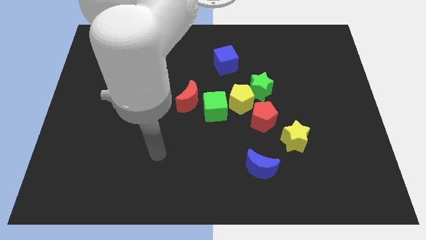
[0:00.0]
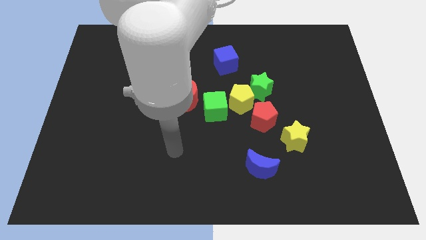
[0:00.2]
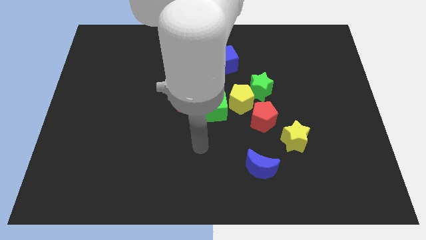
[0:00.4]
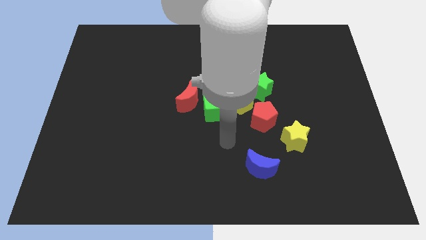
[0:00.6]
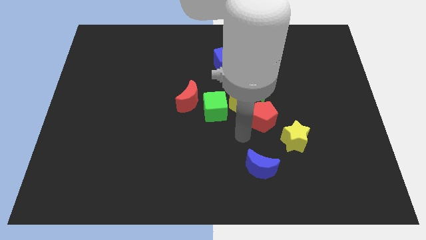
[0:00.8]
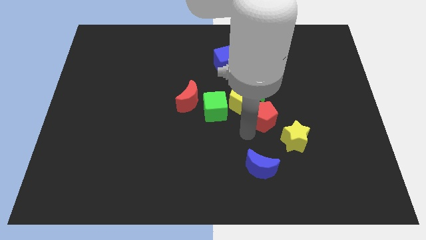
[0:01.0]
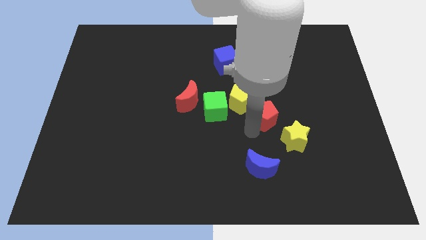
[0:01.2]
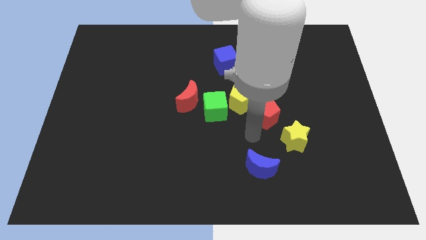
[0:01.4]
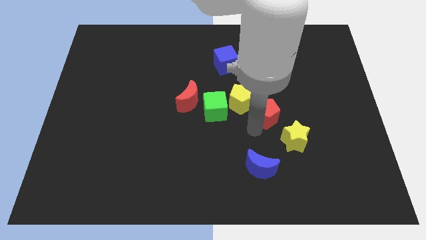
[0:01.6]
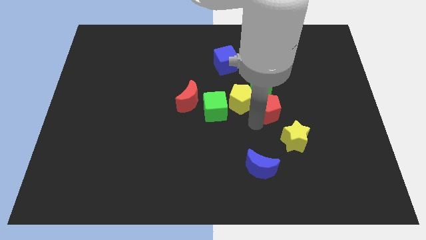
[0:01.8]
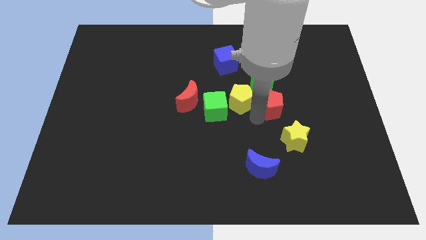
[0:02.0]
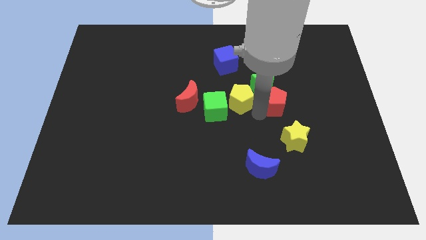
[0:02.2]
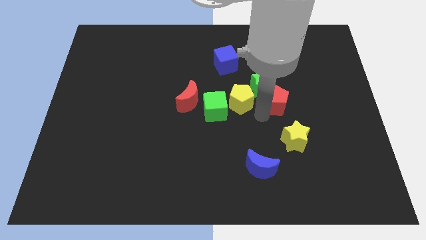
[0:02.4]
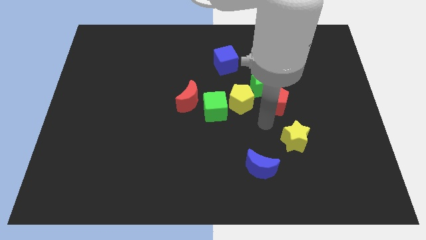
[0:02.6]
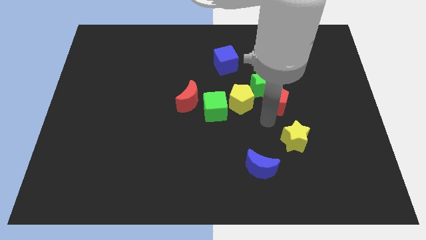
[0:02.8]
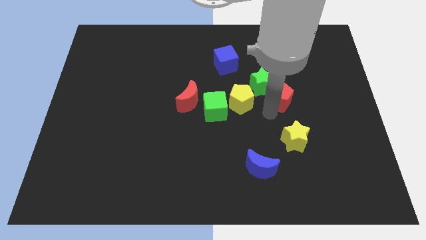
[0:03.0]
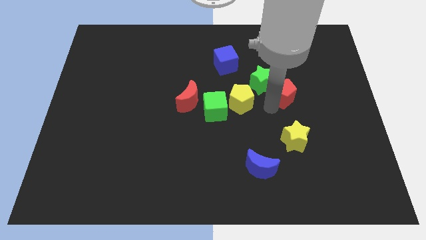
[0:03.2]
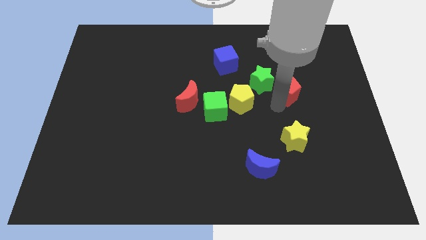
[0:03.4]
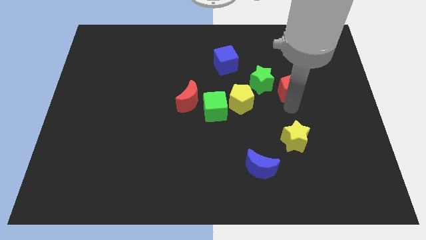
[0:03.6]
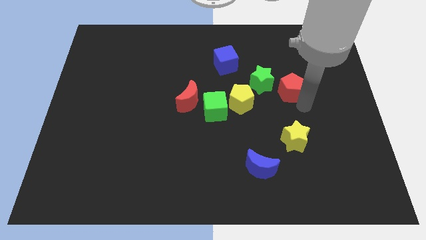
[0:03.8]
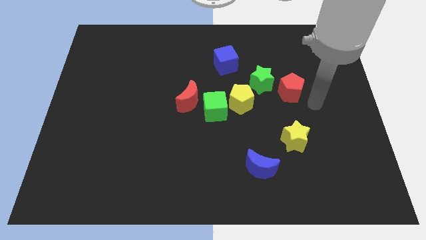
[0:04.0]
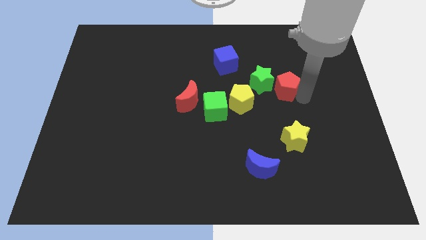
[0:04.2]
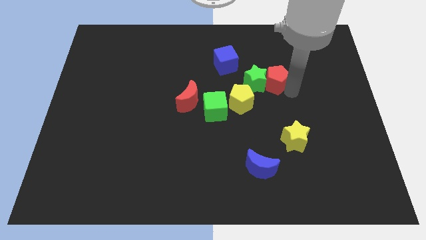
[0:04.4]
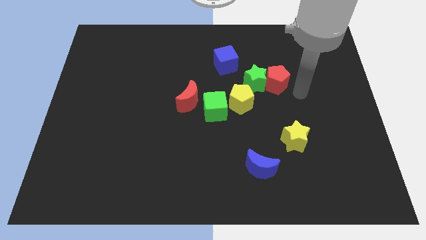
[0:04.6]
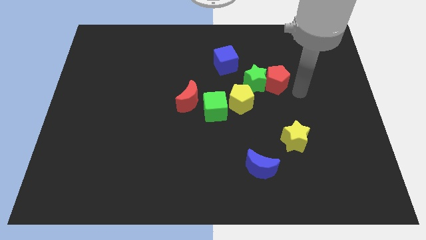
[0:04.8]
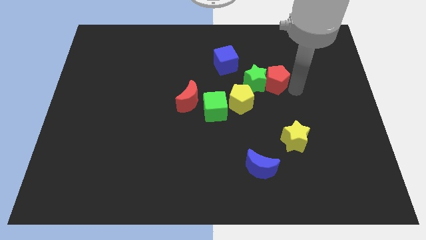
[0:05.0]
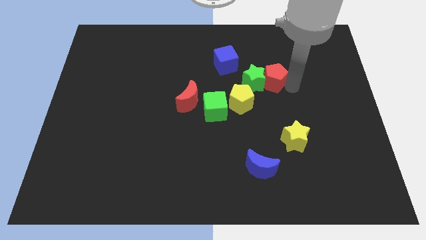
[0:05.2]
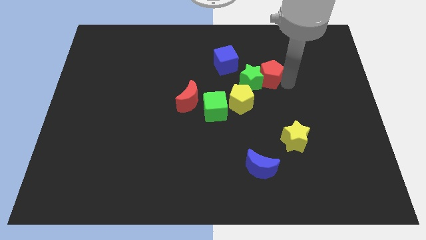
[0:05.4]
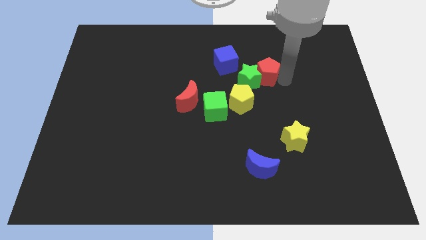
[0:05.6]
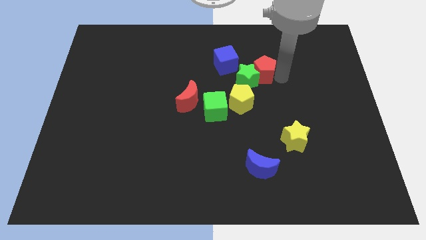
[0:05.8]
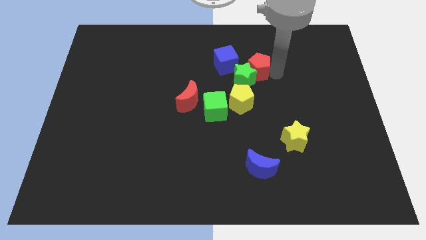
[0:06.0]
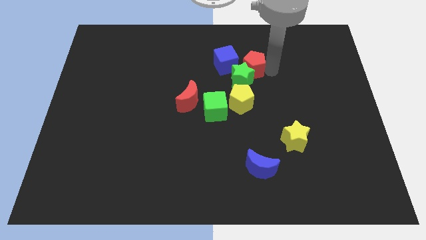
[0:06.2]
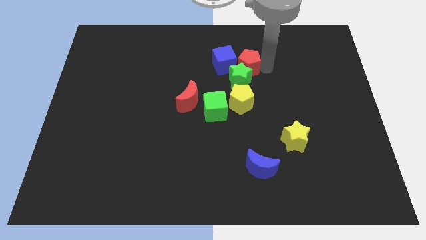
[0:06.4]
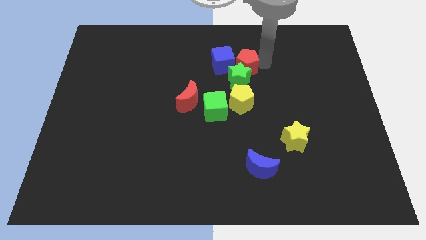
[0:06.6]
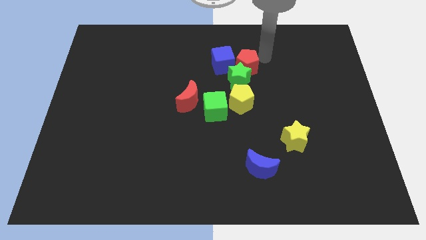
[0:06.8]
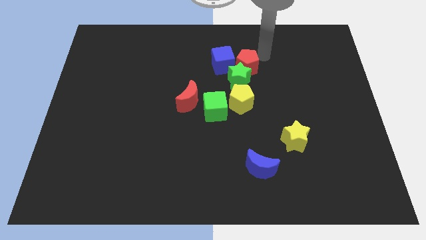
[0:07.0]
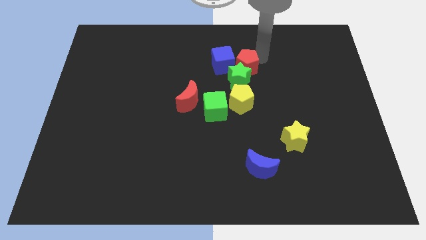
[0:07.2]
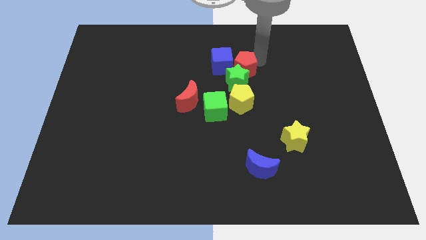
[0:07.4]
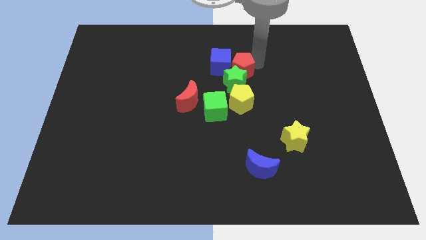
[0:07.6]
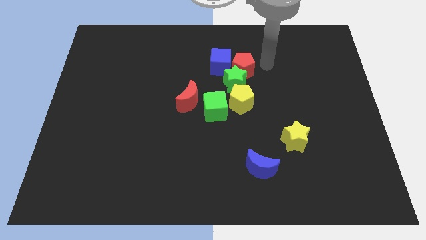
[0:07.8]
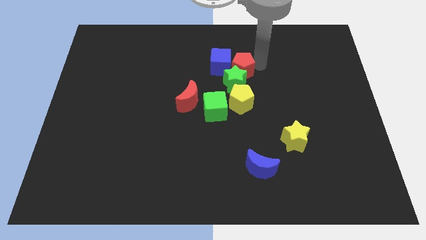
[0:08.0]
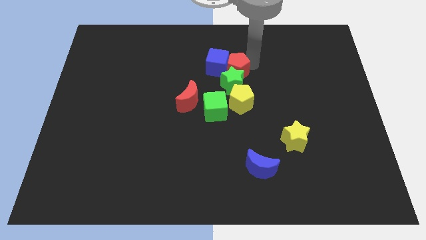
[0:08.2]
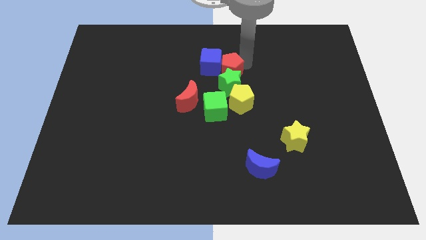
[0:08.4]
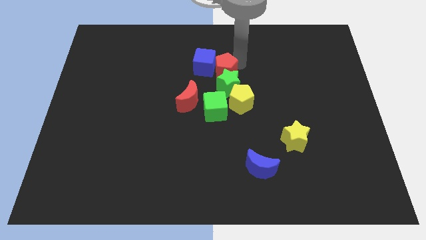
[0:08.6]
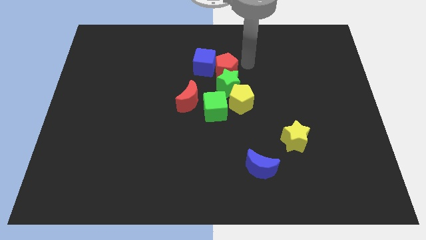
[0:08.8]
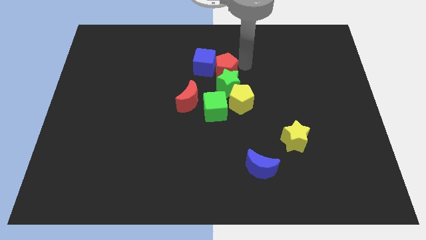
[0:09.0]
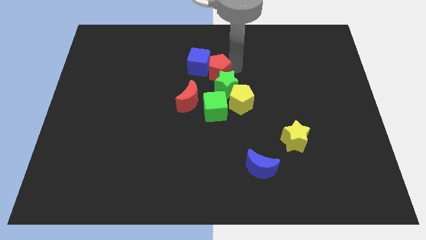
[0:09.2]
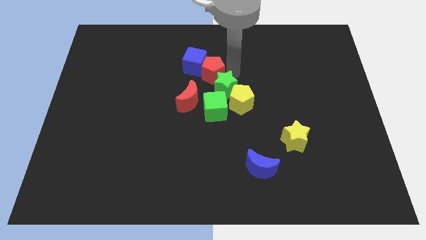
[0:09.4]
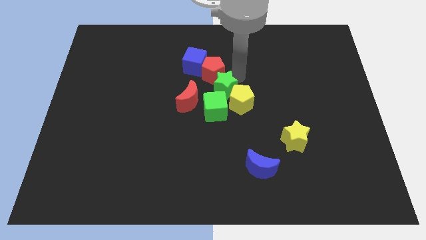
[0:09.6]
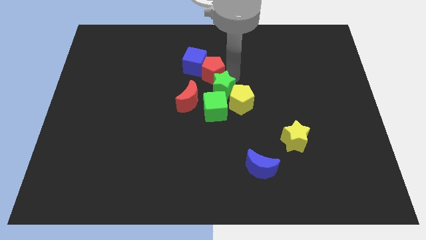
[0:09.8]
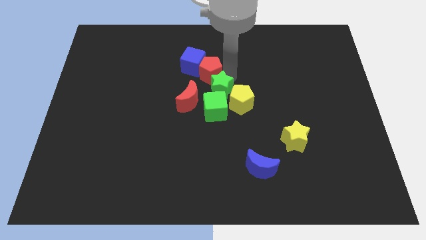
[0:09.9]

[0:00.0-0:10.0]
slide the red pentagon to the top side of the red moon

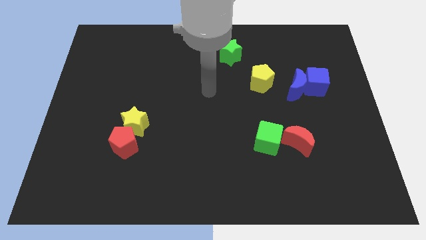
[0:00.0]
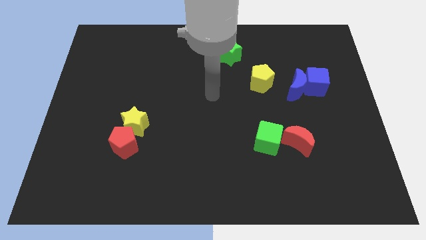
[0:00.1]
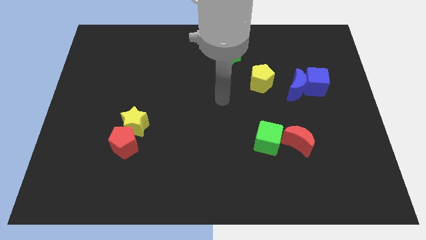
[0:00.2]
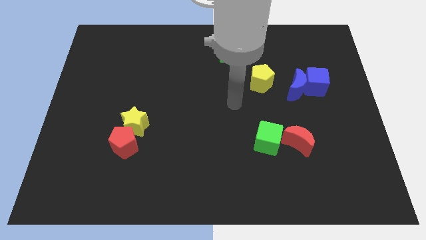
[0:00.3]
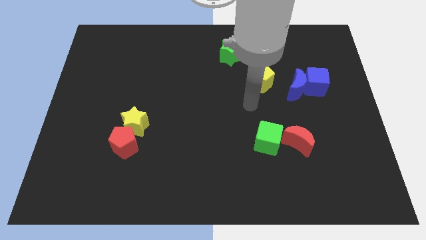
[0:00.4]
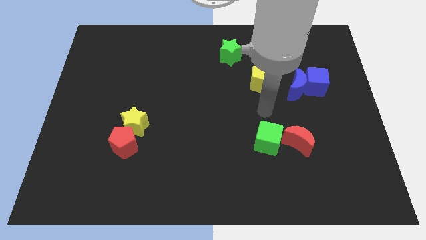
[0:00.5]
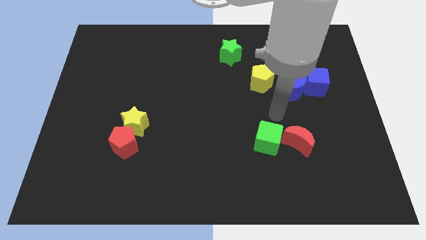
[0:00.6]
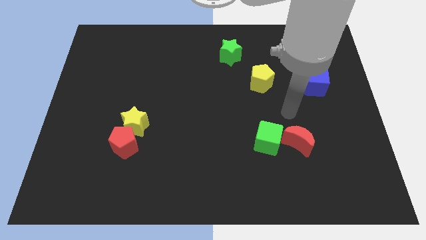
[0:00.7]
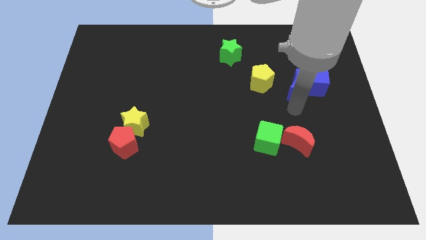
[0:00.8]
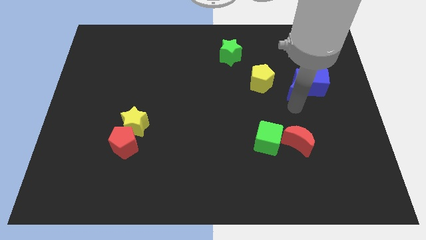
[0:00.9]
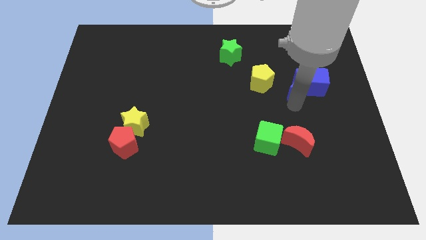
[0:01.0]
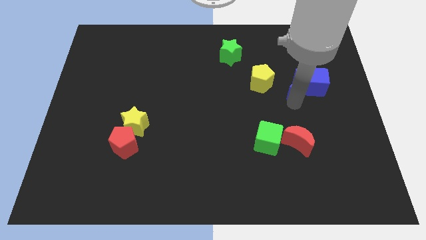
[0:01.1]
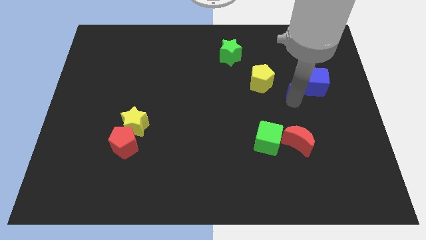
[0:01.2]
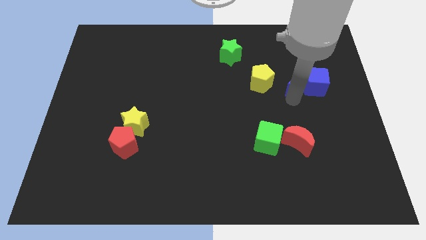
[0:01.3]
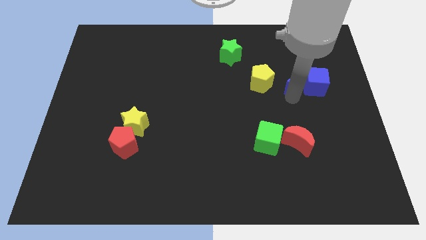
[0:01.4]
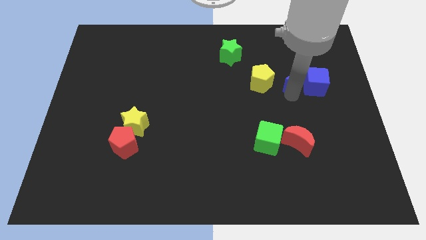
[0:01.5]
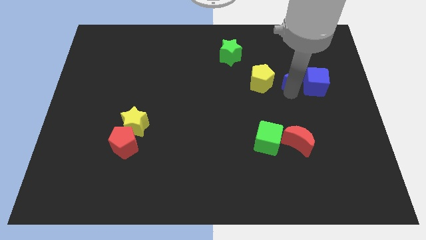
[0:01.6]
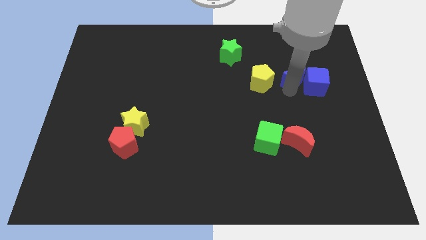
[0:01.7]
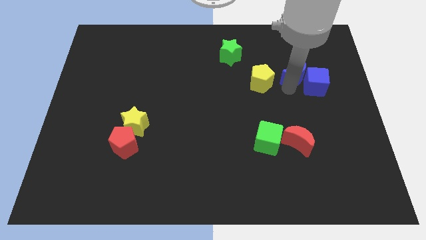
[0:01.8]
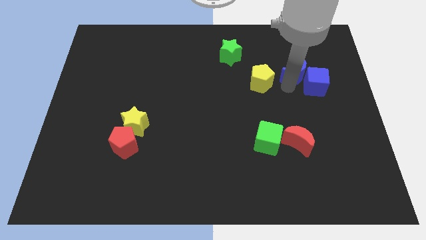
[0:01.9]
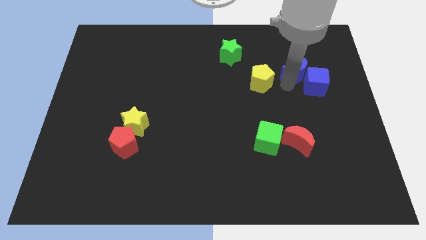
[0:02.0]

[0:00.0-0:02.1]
push the blue moon to the top side of the blue cube

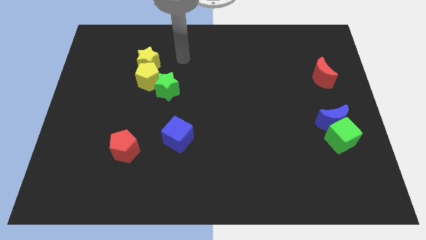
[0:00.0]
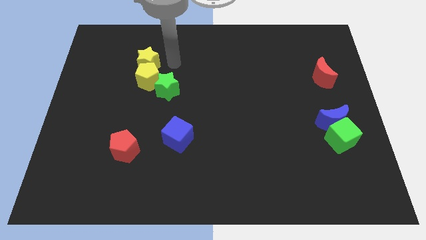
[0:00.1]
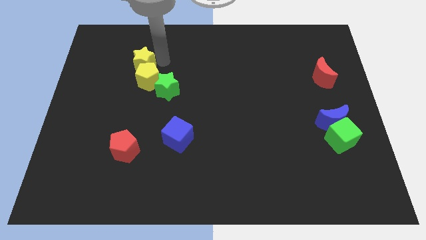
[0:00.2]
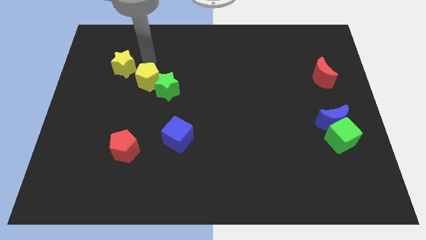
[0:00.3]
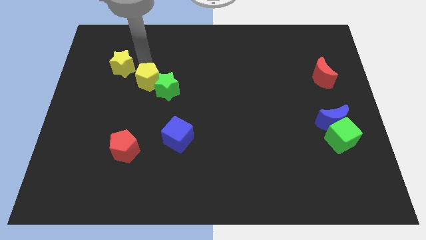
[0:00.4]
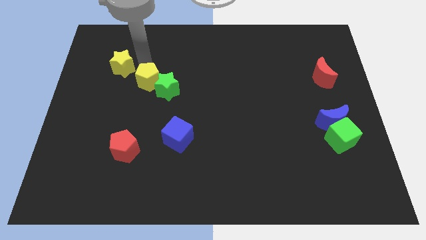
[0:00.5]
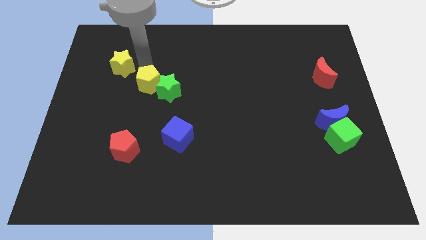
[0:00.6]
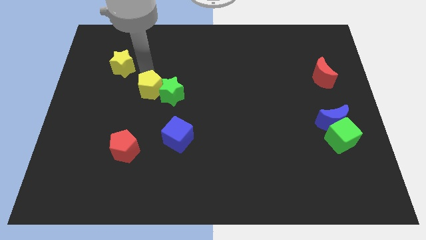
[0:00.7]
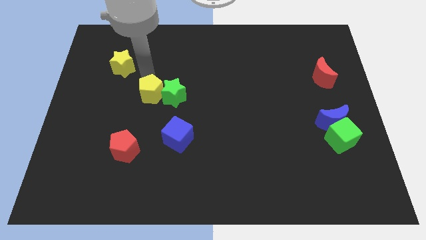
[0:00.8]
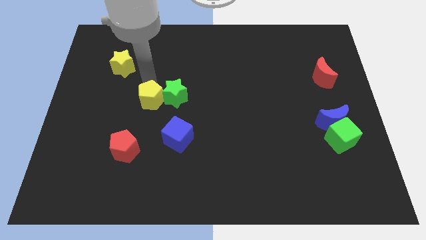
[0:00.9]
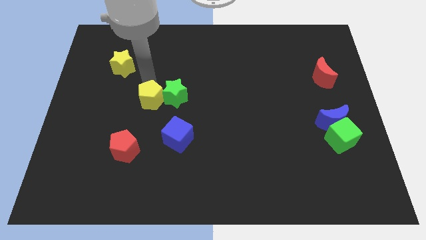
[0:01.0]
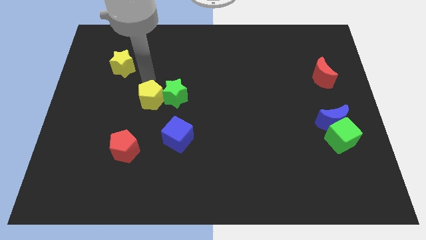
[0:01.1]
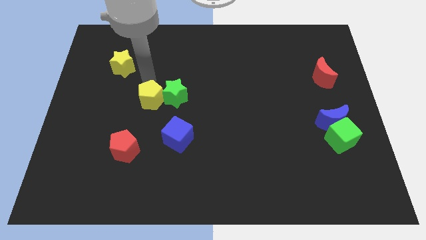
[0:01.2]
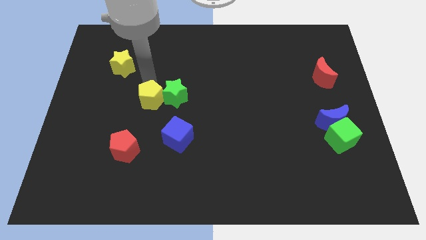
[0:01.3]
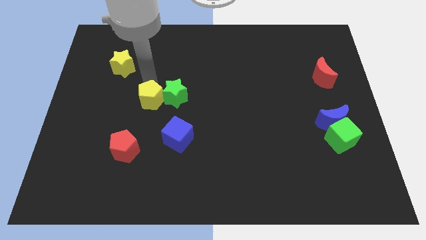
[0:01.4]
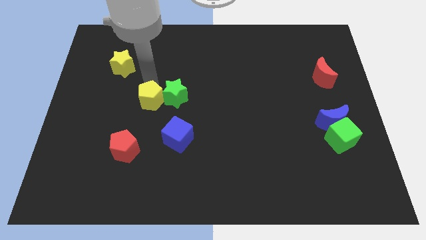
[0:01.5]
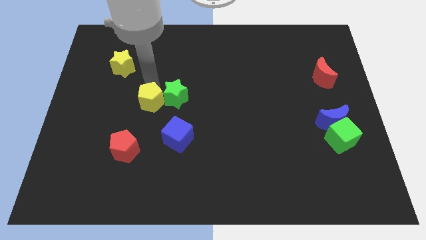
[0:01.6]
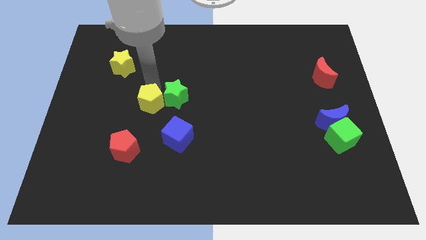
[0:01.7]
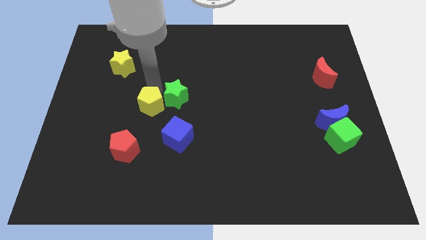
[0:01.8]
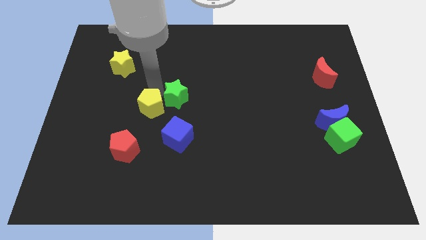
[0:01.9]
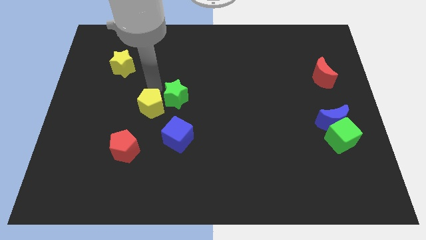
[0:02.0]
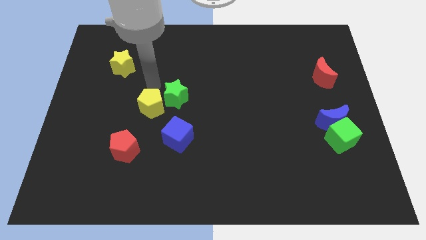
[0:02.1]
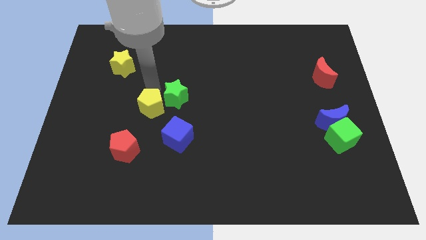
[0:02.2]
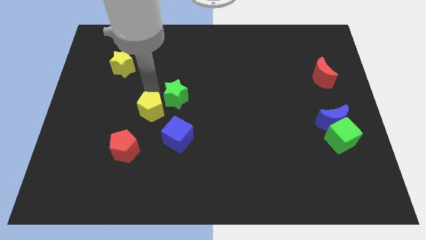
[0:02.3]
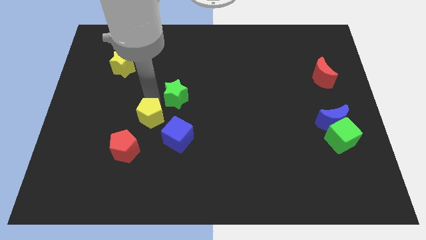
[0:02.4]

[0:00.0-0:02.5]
slide the yellow pentagon diagonally up and to the right of the red pentagon
